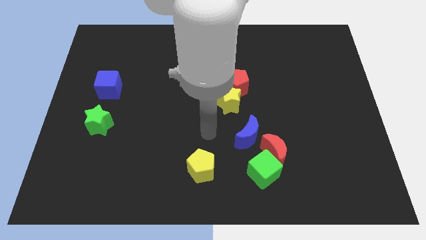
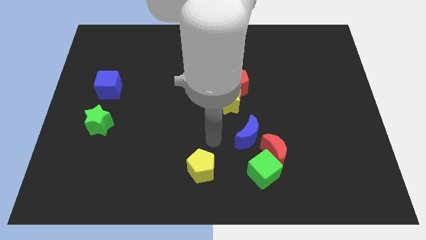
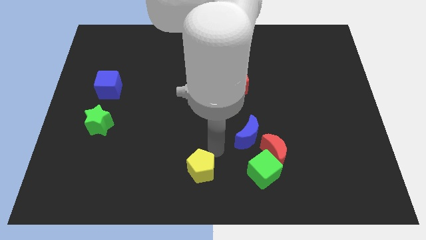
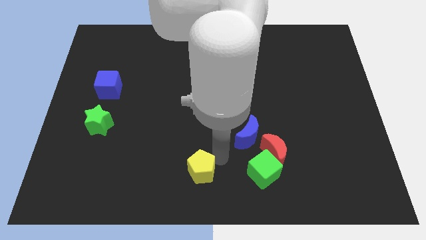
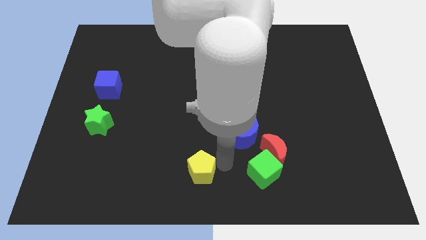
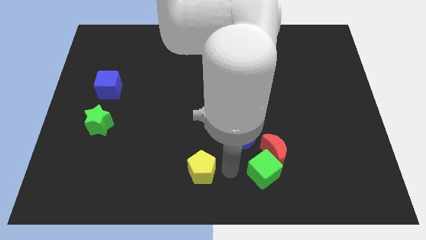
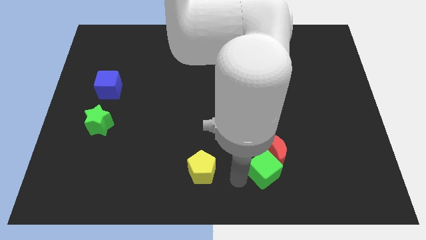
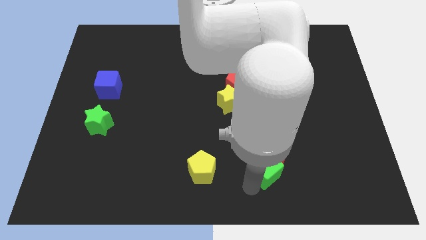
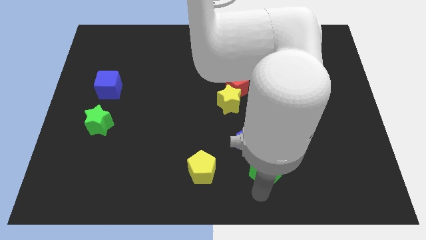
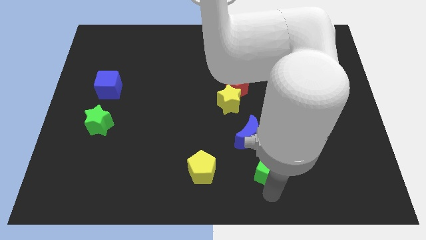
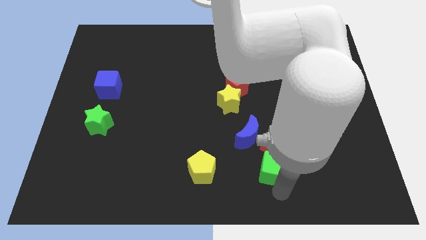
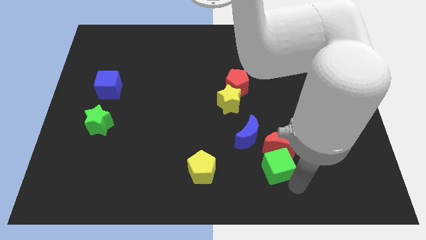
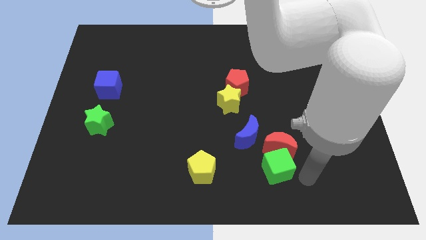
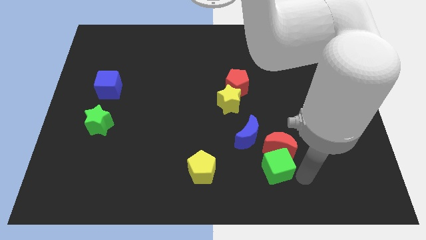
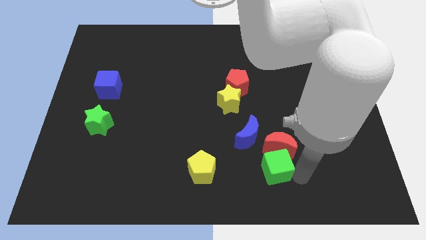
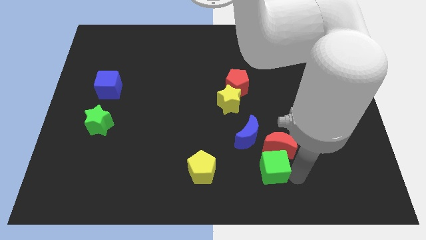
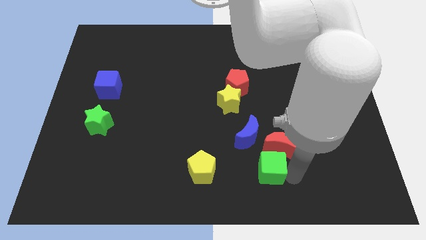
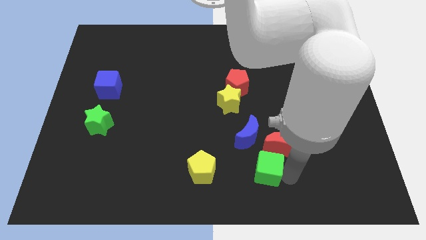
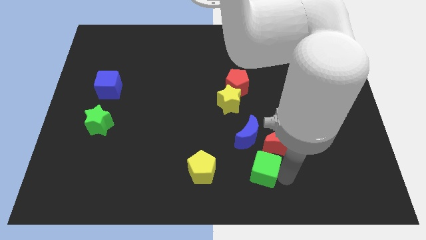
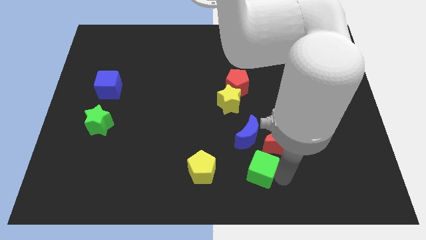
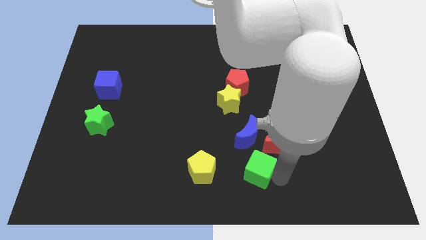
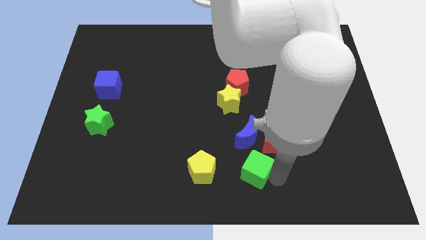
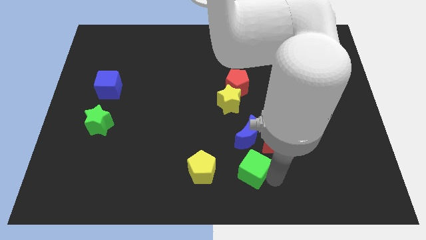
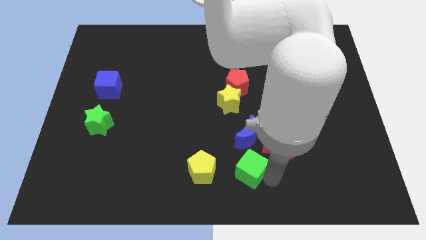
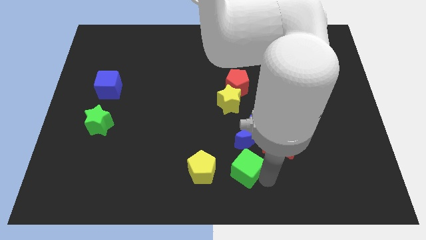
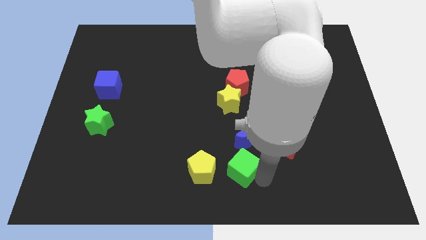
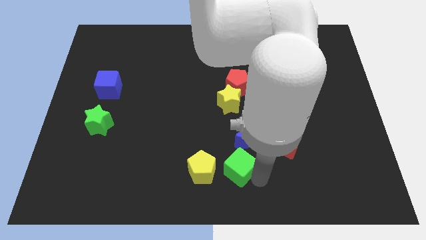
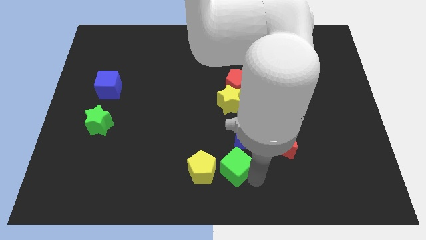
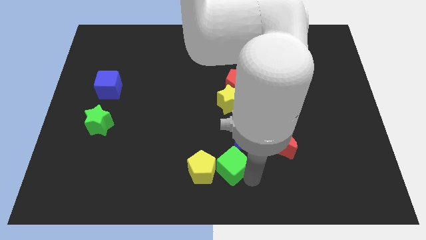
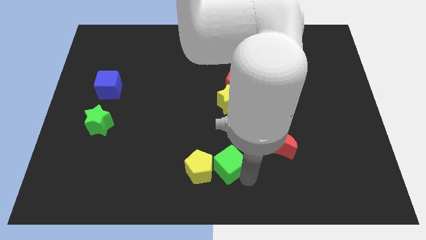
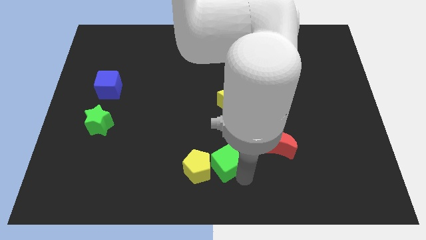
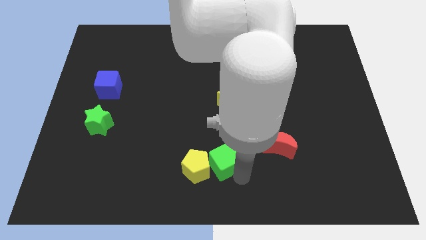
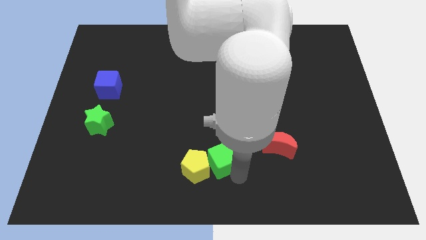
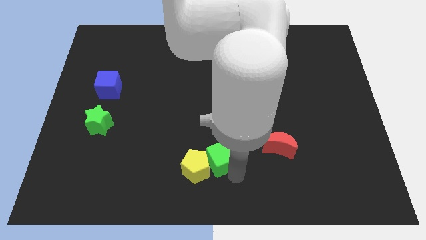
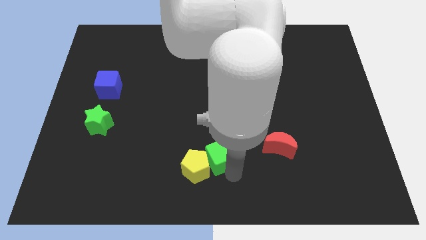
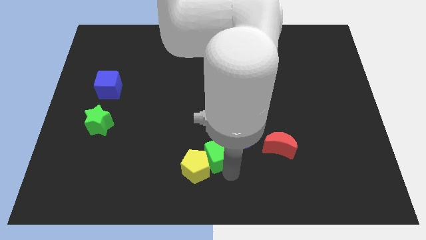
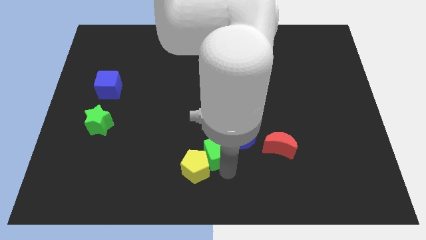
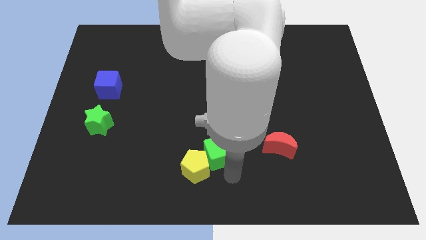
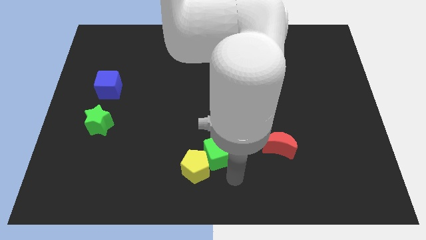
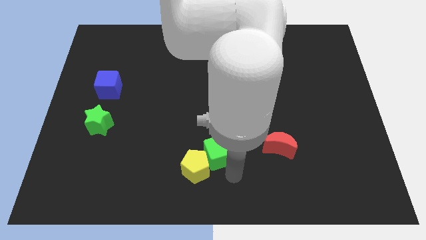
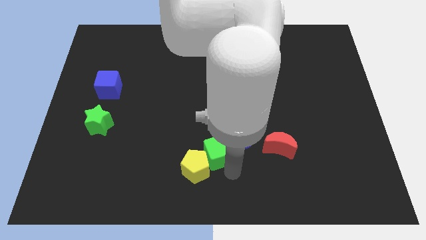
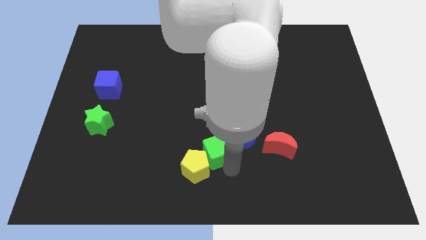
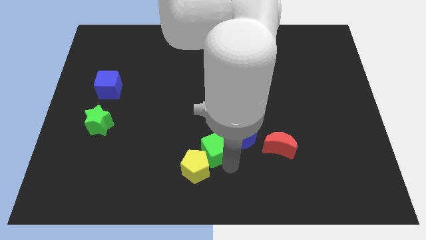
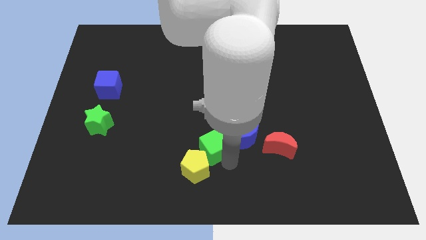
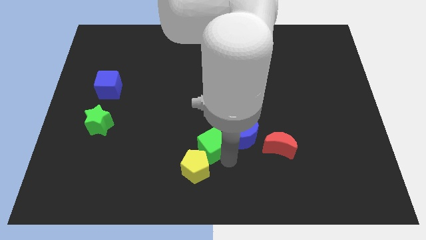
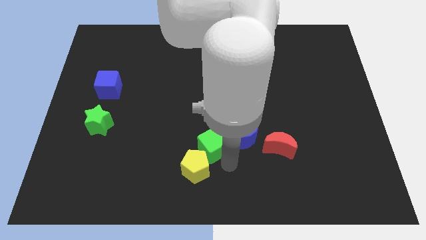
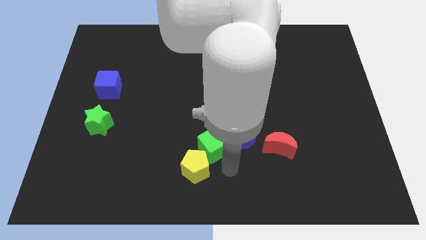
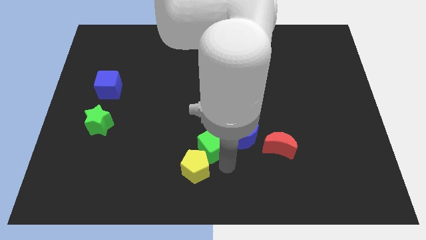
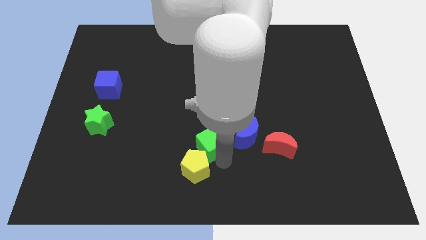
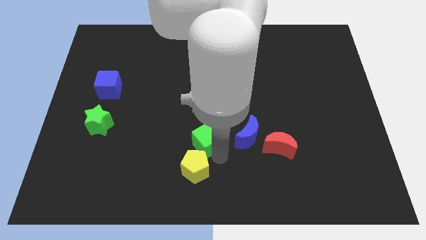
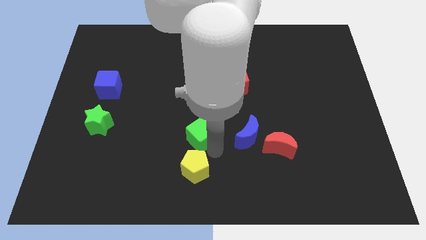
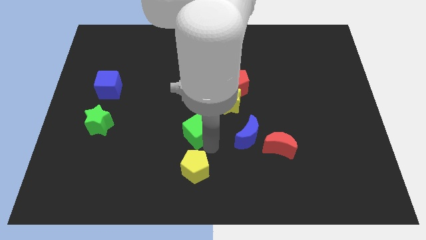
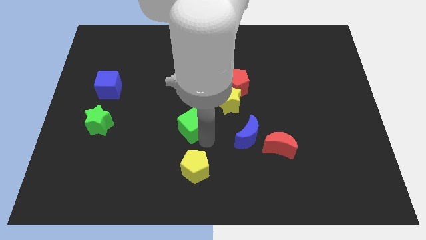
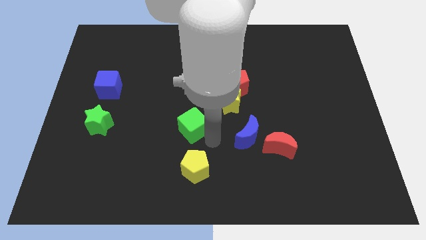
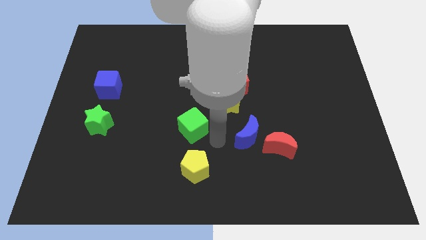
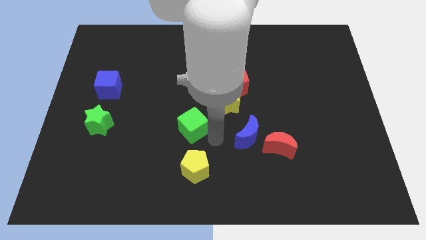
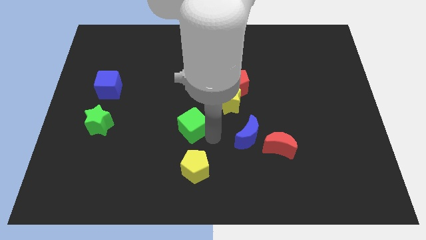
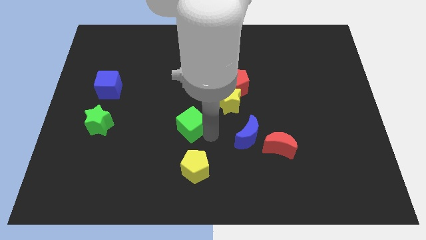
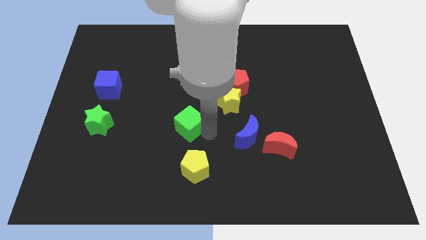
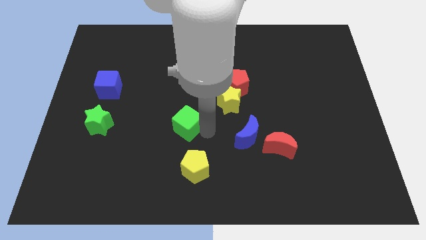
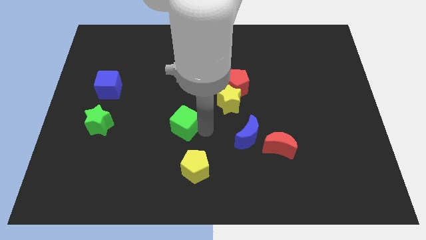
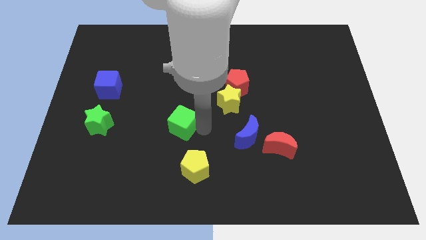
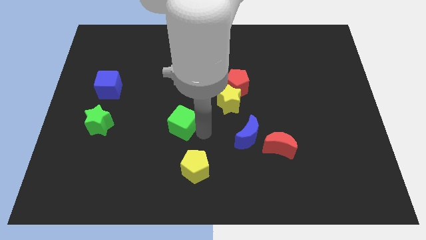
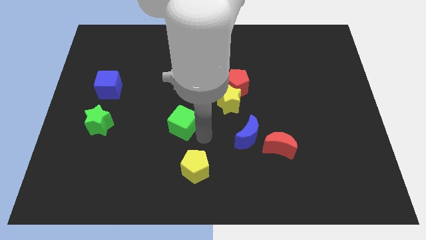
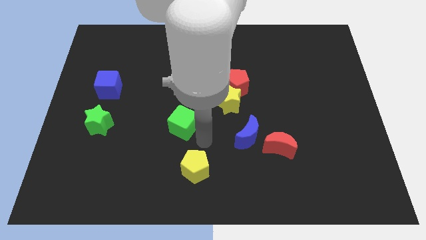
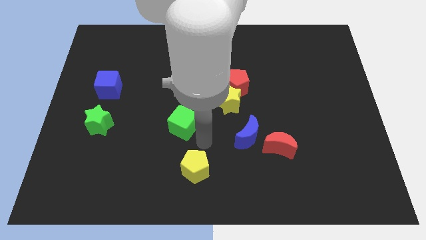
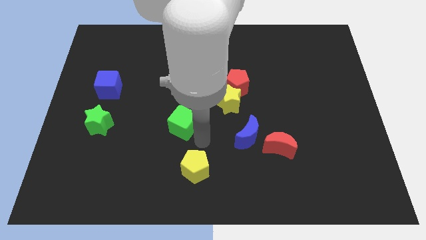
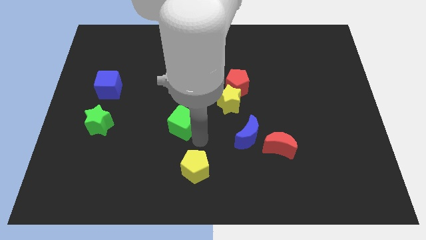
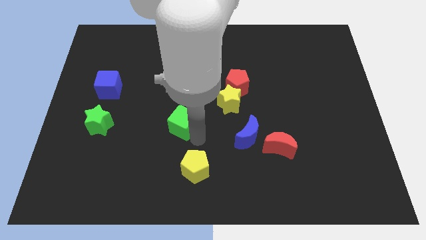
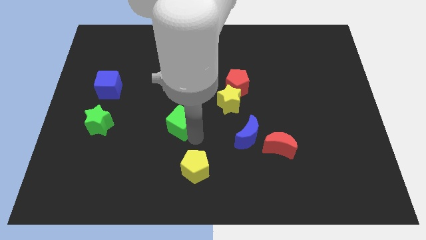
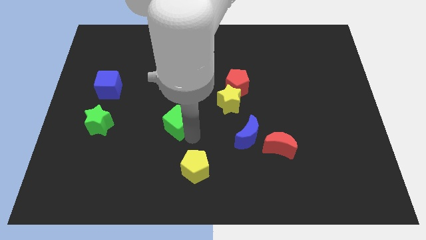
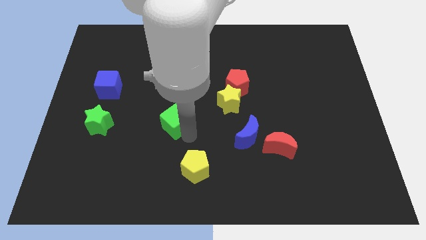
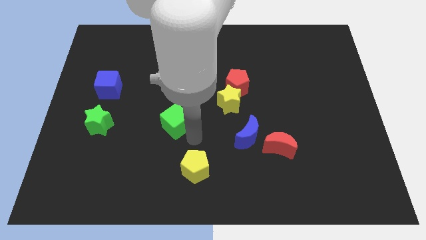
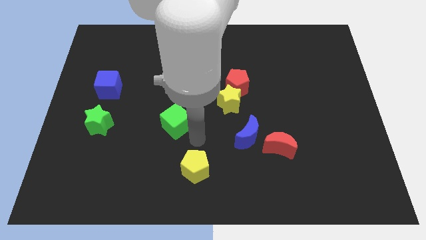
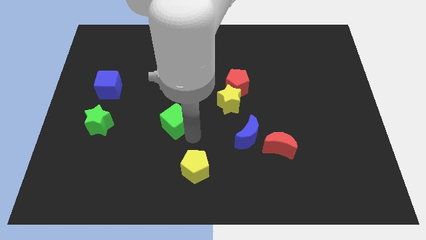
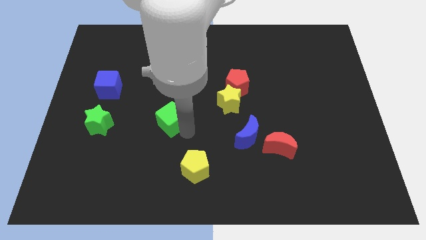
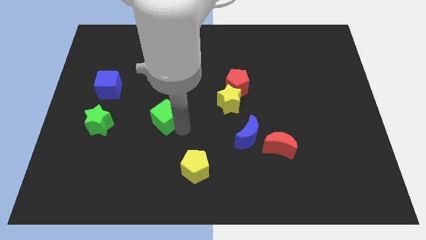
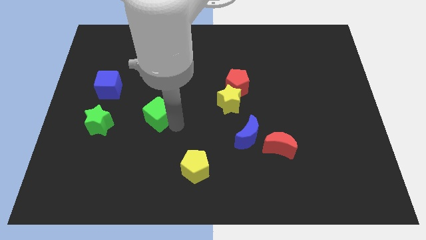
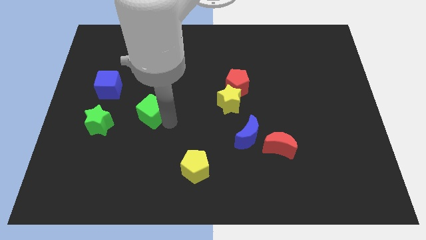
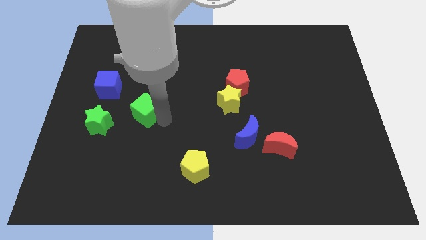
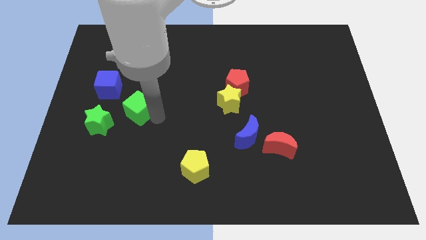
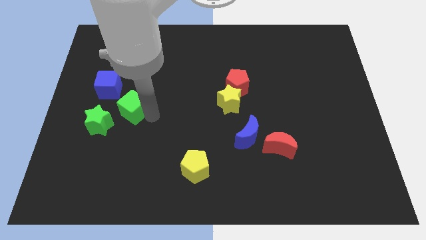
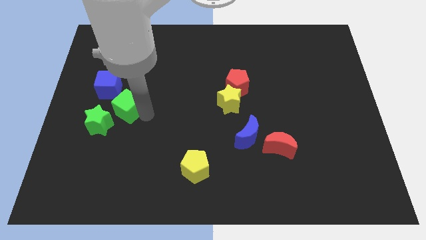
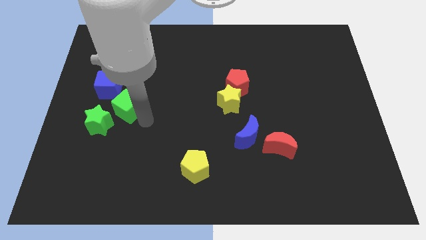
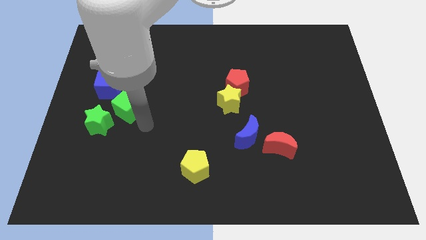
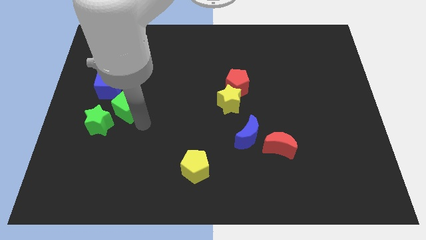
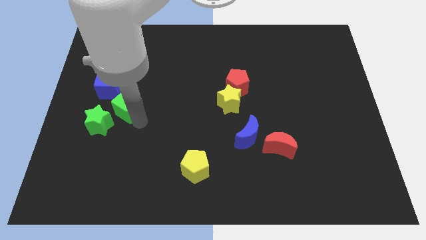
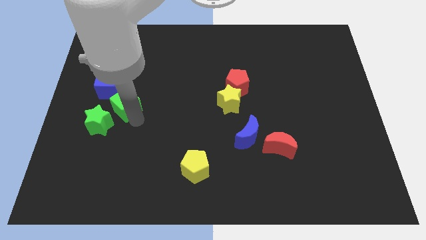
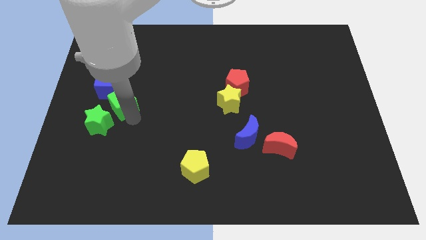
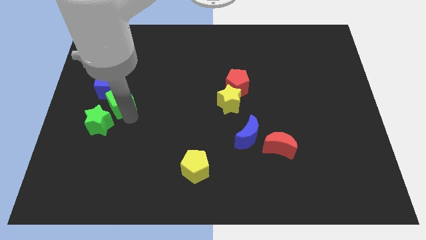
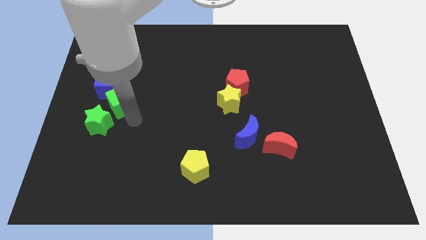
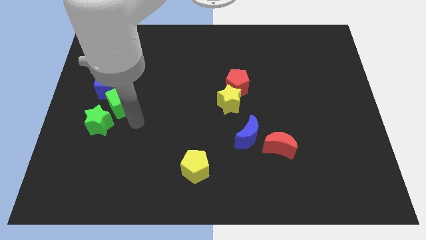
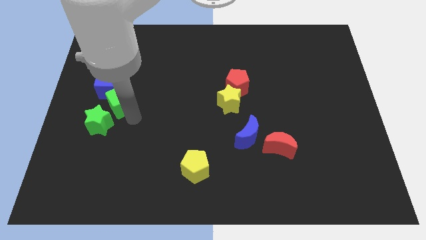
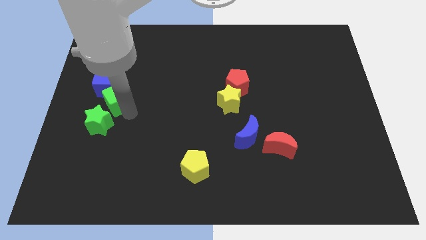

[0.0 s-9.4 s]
slide the green cube next to the blue cube
